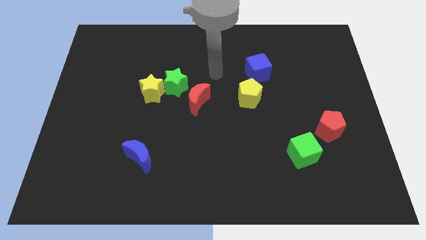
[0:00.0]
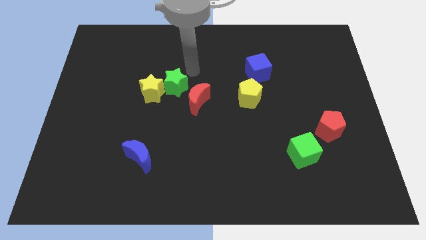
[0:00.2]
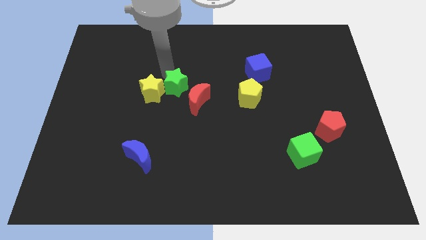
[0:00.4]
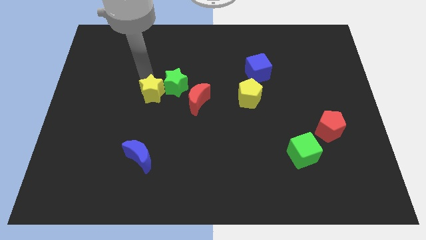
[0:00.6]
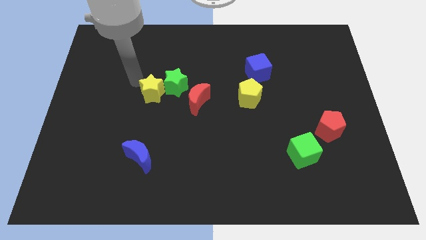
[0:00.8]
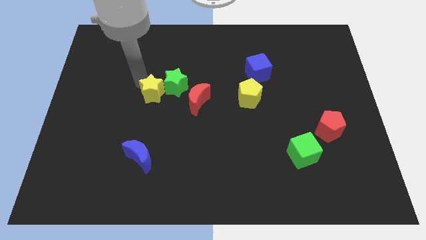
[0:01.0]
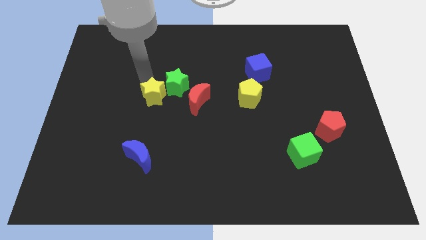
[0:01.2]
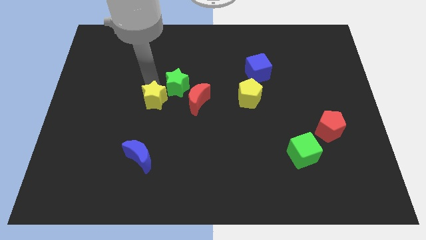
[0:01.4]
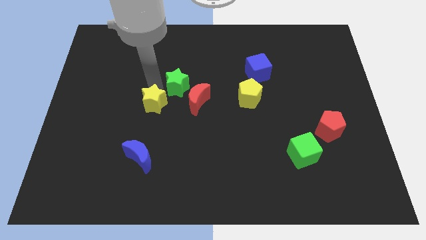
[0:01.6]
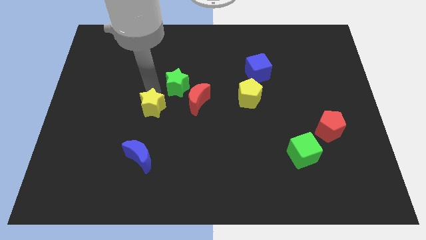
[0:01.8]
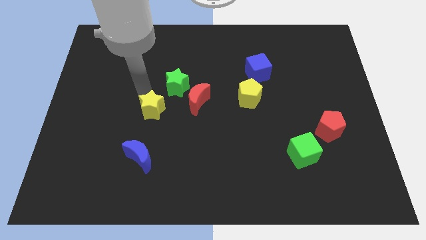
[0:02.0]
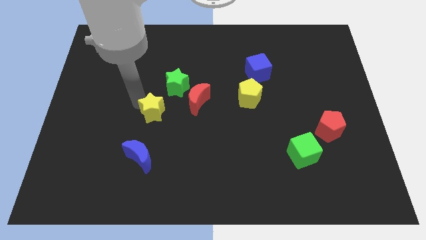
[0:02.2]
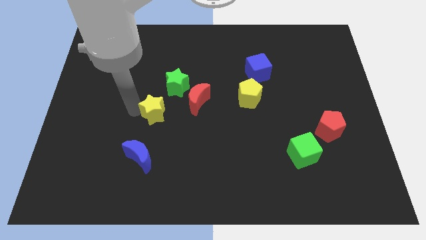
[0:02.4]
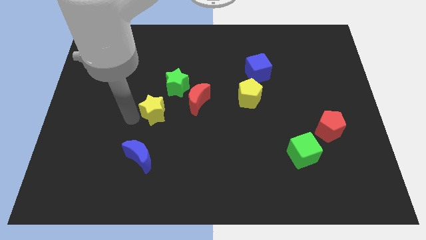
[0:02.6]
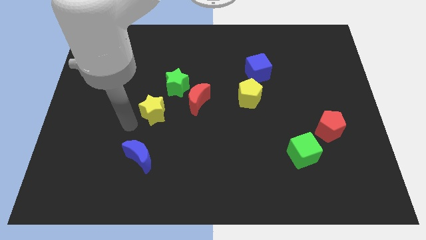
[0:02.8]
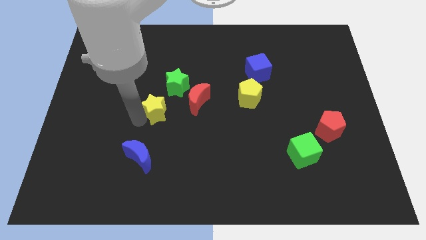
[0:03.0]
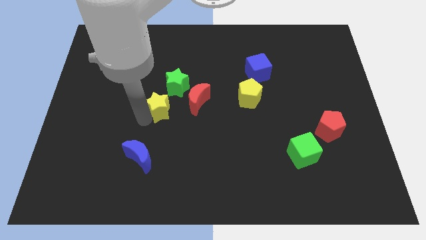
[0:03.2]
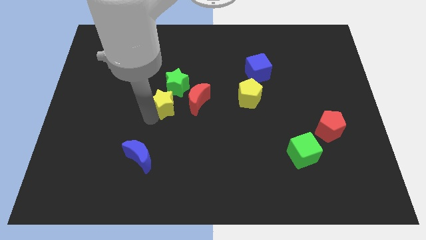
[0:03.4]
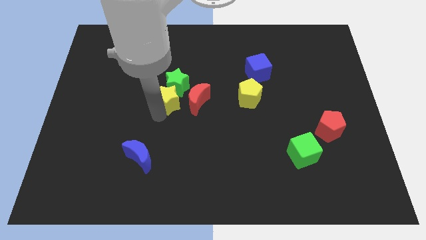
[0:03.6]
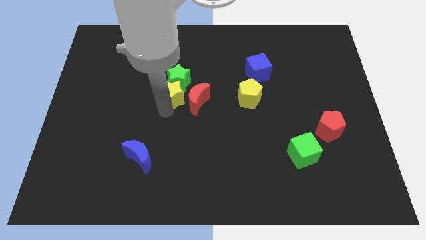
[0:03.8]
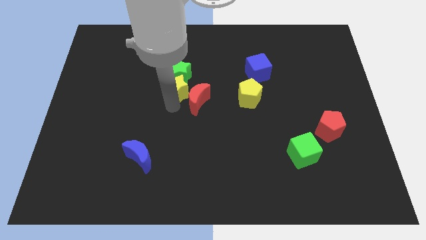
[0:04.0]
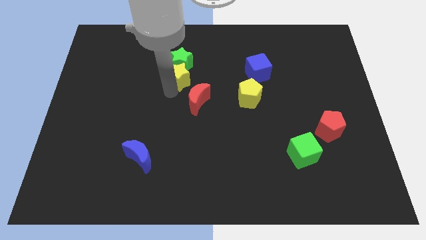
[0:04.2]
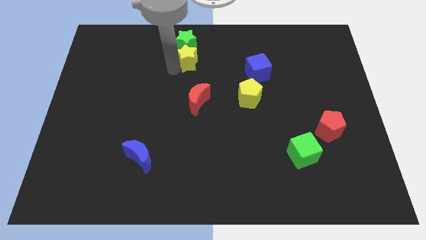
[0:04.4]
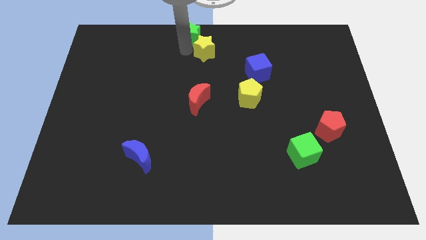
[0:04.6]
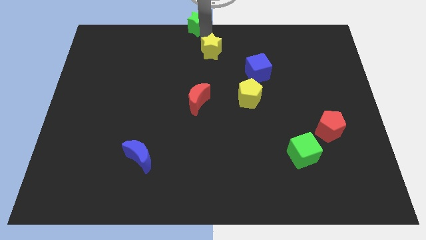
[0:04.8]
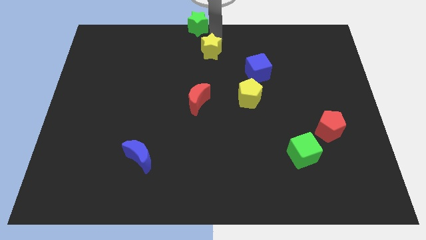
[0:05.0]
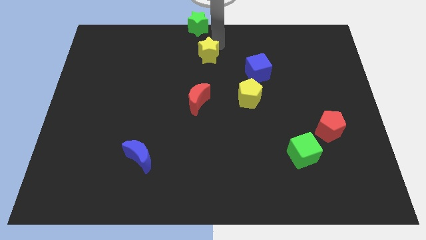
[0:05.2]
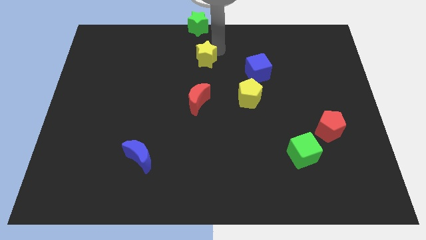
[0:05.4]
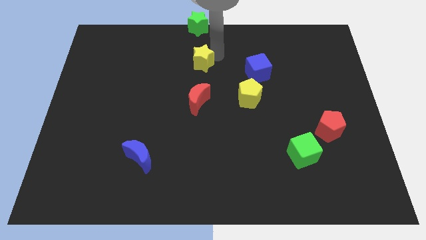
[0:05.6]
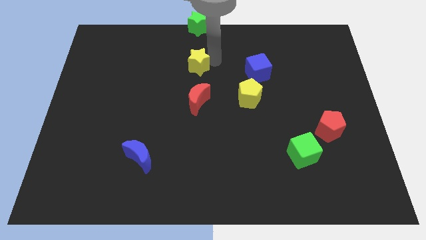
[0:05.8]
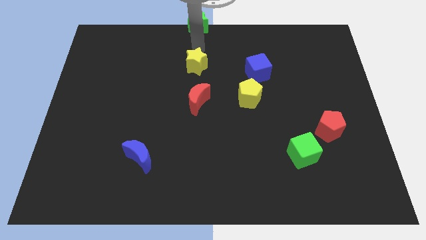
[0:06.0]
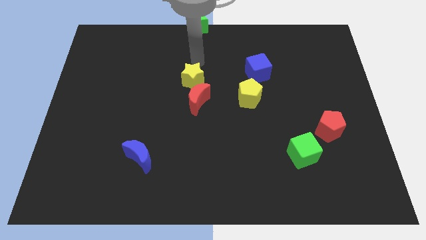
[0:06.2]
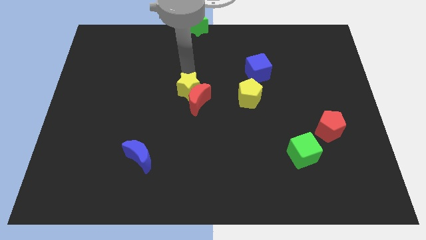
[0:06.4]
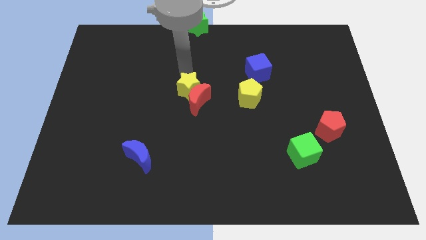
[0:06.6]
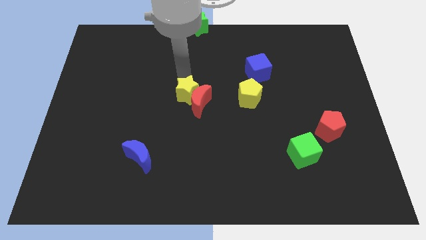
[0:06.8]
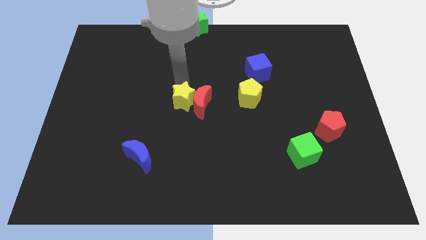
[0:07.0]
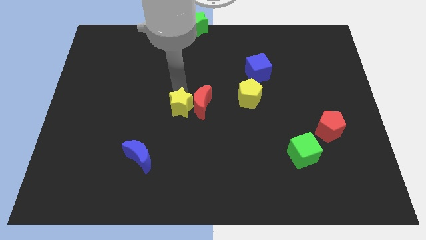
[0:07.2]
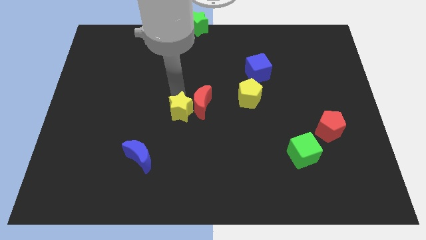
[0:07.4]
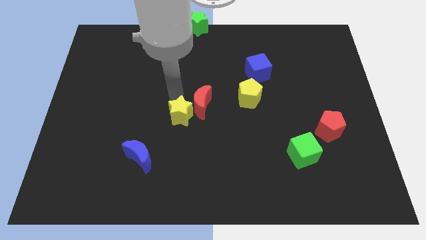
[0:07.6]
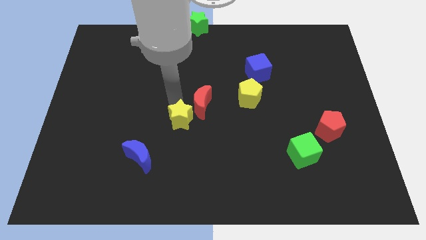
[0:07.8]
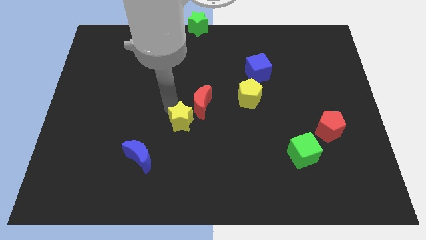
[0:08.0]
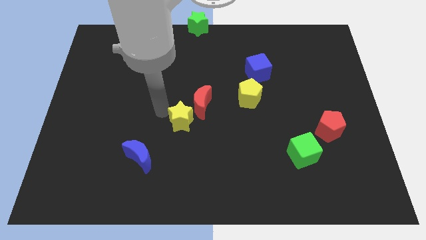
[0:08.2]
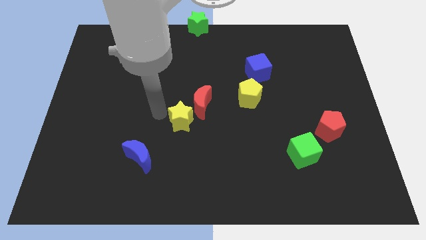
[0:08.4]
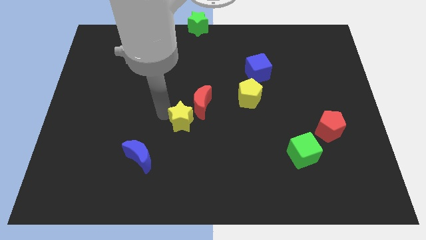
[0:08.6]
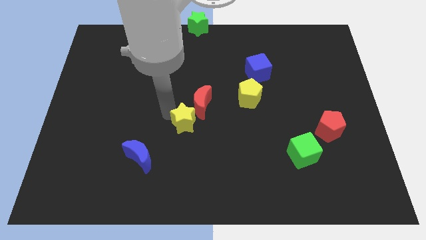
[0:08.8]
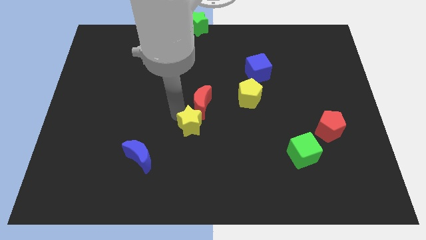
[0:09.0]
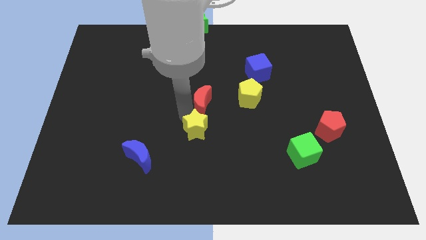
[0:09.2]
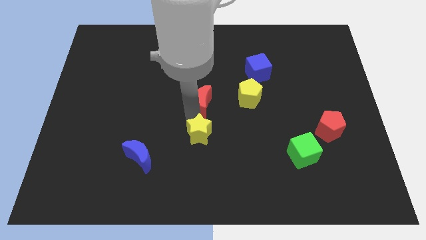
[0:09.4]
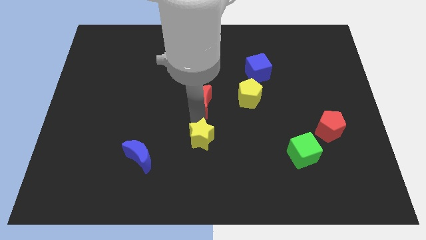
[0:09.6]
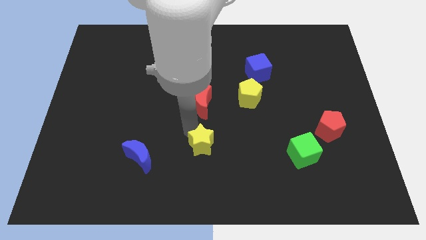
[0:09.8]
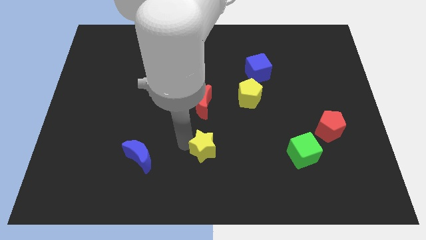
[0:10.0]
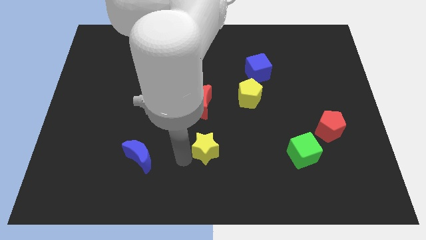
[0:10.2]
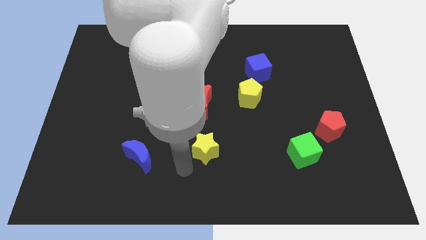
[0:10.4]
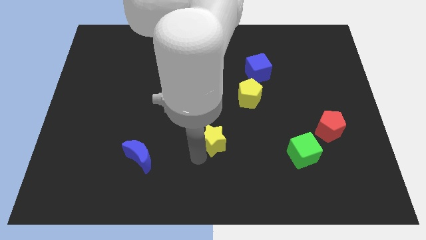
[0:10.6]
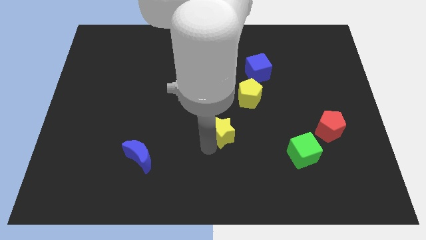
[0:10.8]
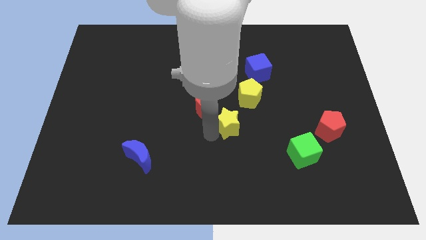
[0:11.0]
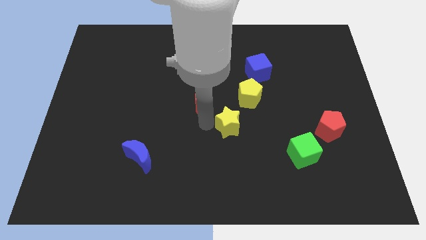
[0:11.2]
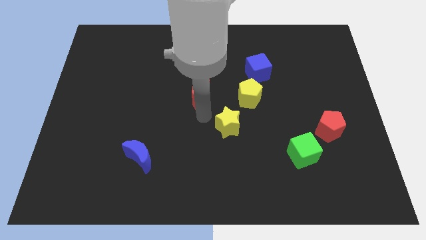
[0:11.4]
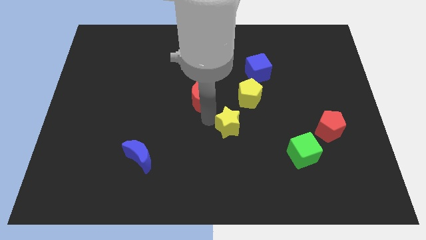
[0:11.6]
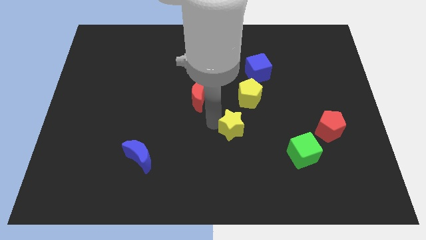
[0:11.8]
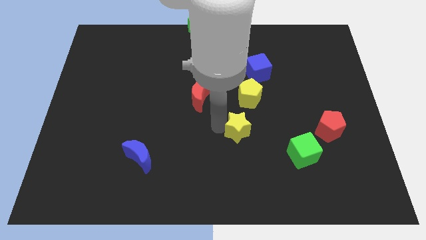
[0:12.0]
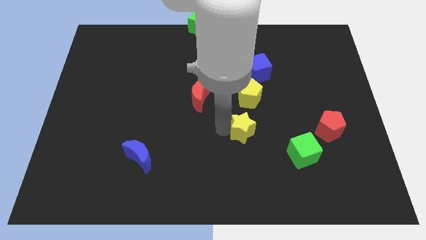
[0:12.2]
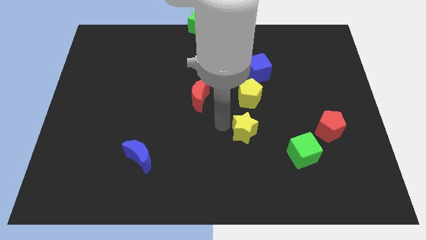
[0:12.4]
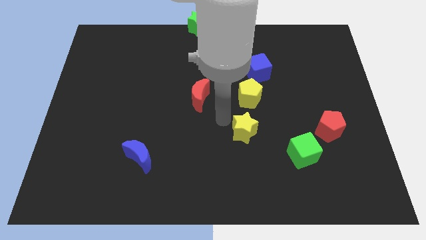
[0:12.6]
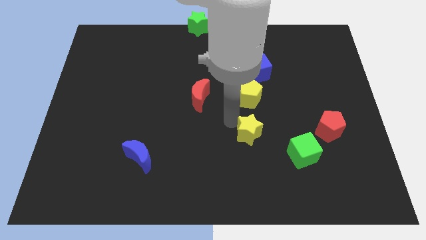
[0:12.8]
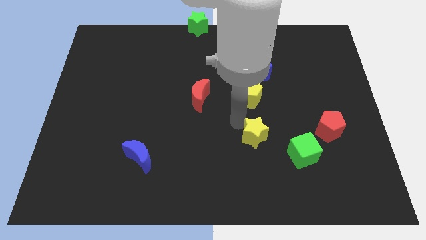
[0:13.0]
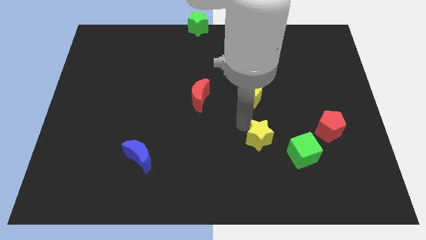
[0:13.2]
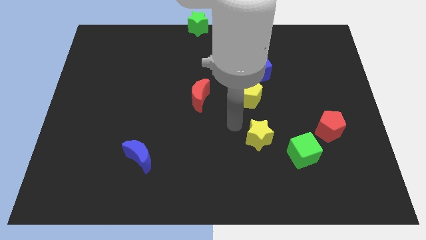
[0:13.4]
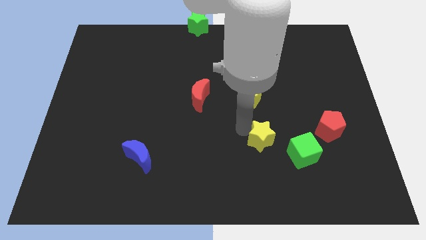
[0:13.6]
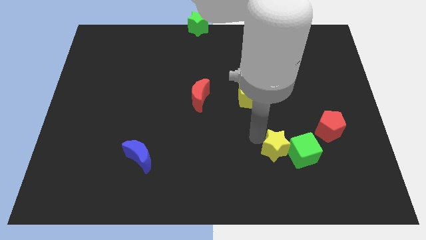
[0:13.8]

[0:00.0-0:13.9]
slide the yellow star close to the green cube

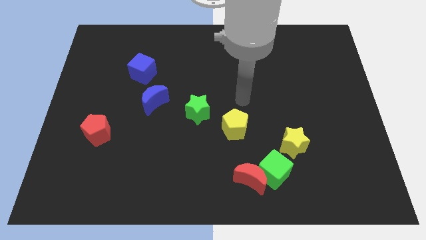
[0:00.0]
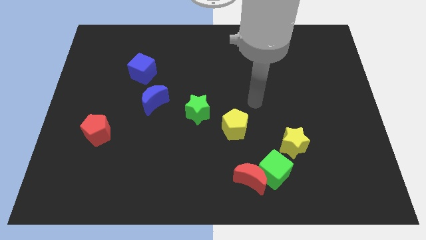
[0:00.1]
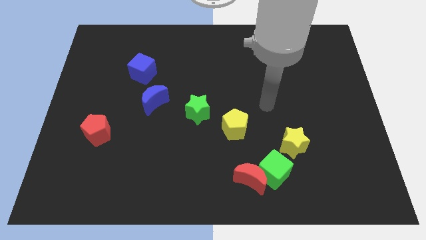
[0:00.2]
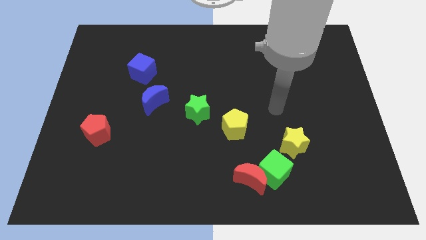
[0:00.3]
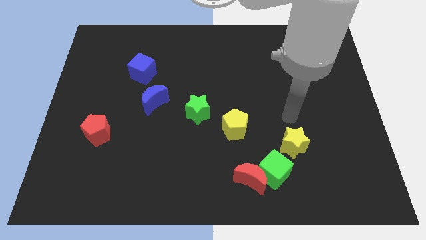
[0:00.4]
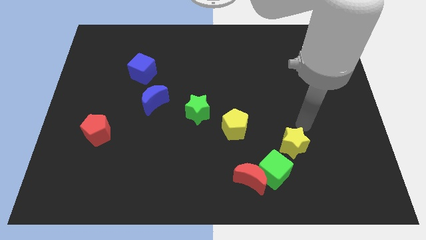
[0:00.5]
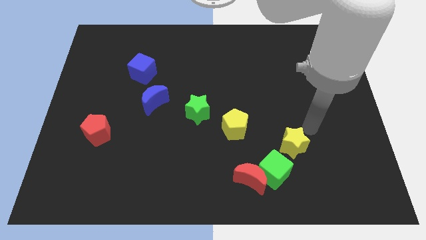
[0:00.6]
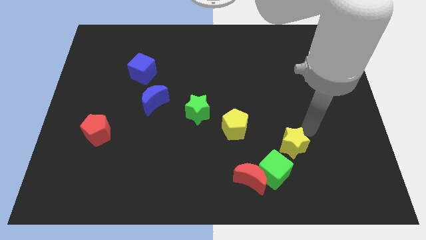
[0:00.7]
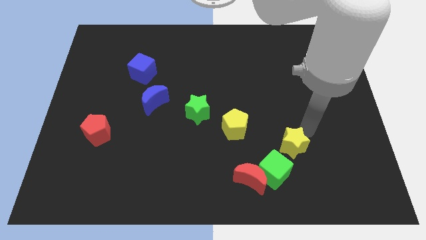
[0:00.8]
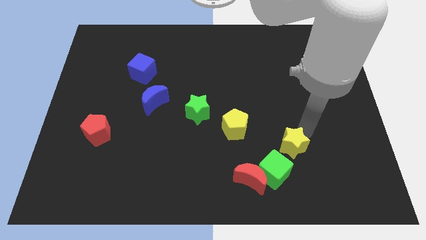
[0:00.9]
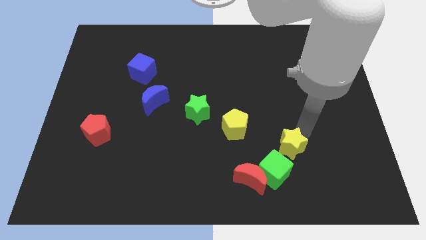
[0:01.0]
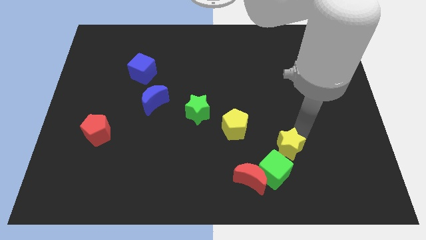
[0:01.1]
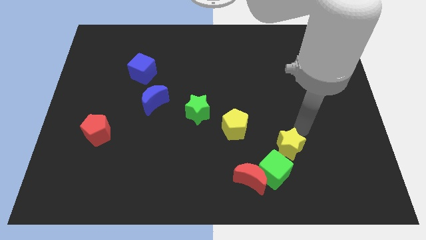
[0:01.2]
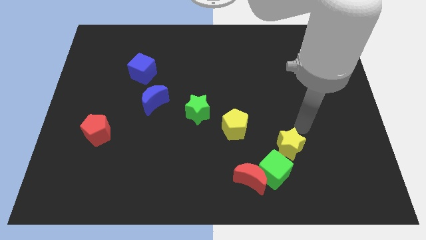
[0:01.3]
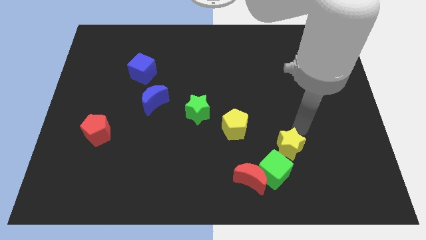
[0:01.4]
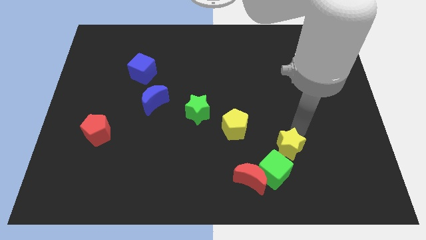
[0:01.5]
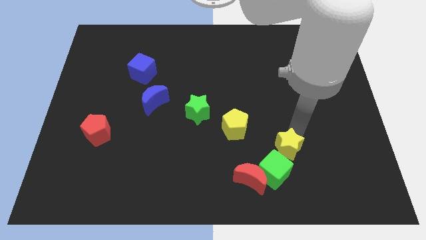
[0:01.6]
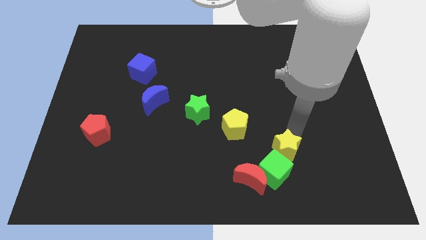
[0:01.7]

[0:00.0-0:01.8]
put the yellow star towards the green cube
